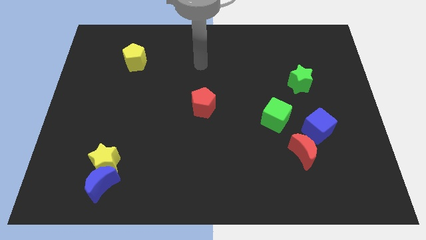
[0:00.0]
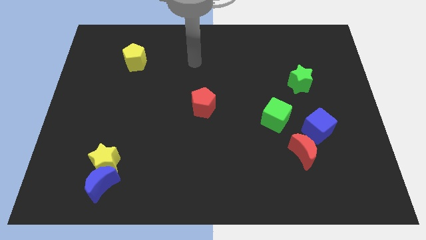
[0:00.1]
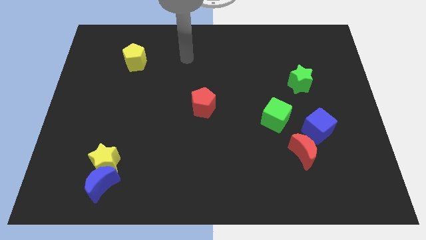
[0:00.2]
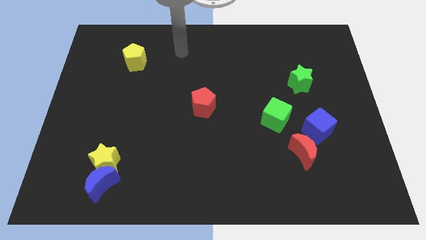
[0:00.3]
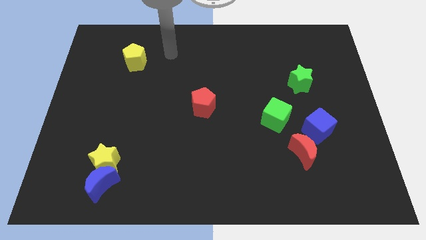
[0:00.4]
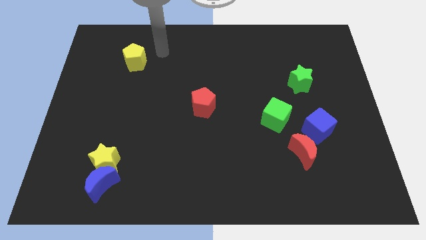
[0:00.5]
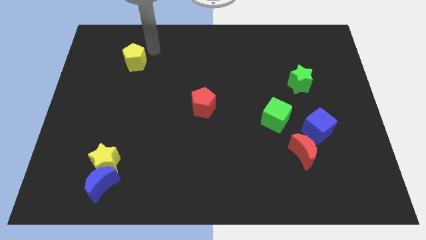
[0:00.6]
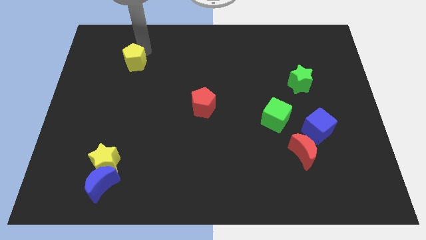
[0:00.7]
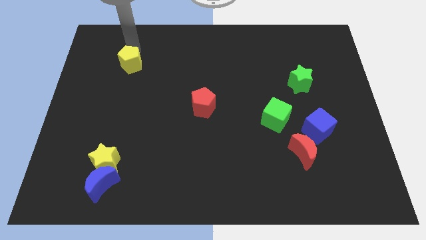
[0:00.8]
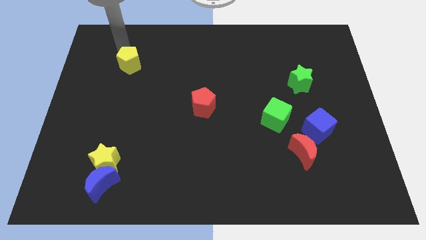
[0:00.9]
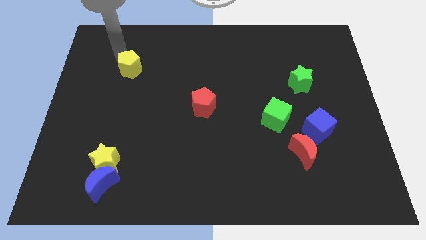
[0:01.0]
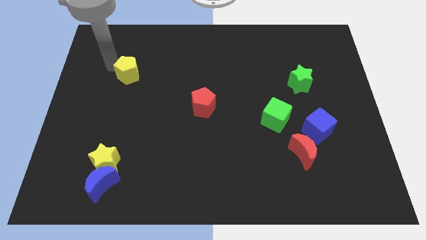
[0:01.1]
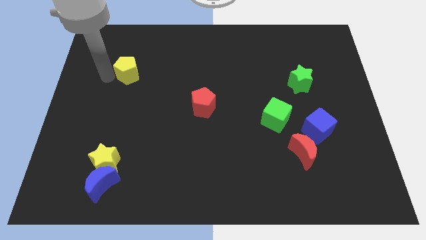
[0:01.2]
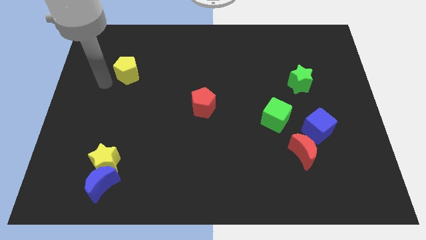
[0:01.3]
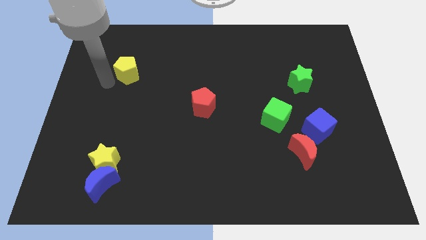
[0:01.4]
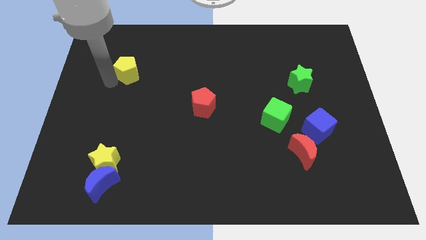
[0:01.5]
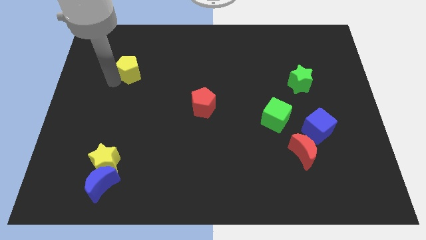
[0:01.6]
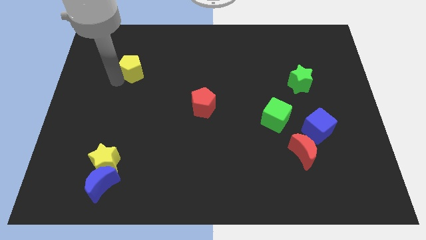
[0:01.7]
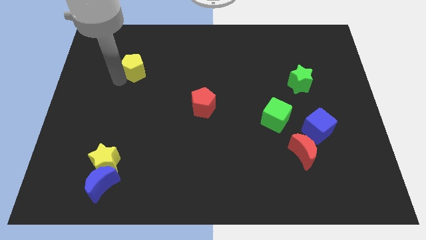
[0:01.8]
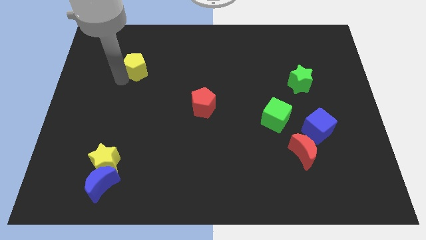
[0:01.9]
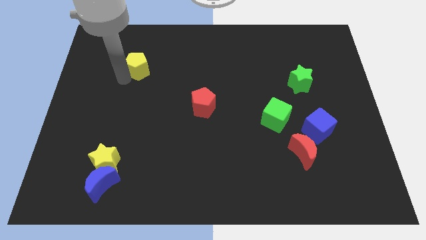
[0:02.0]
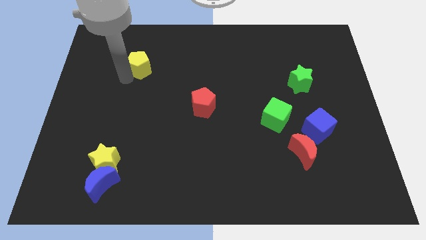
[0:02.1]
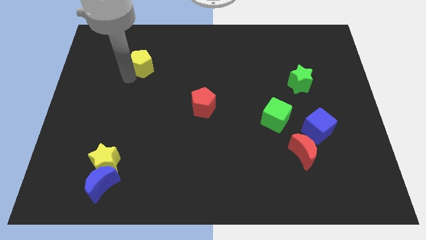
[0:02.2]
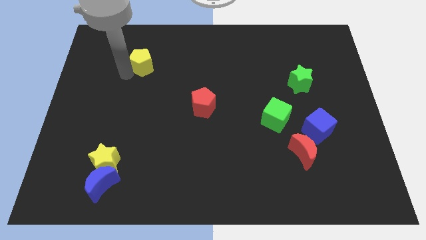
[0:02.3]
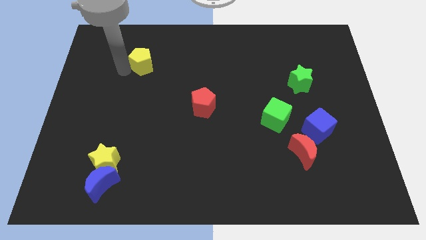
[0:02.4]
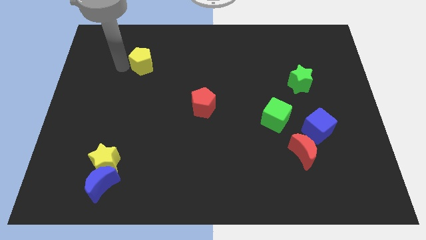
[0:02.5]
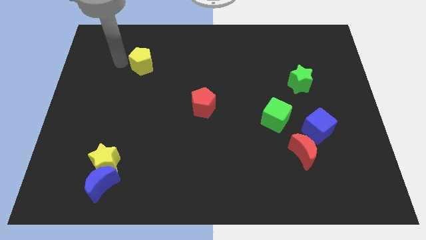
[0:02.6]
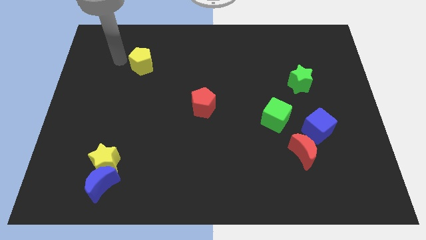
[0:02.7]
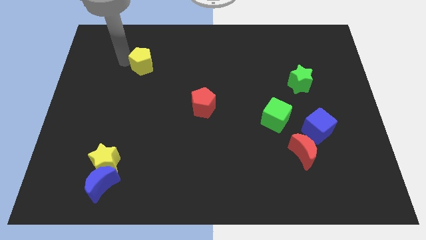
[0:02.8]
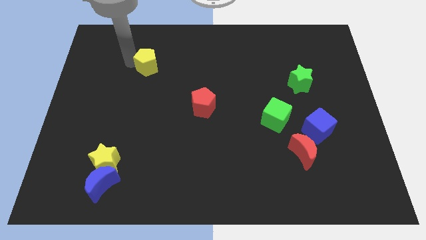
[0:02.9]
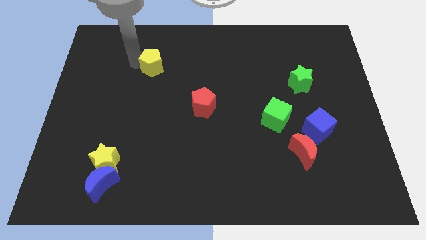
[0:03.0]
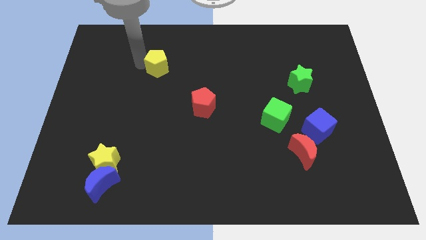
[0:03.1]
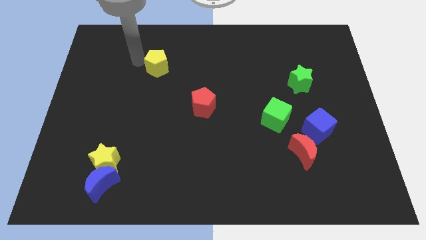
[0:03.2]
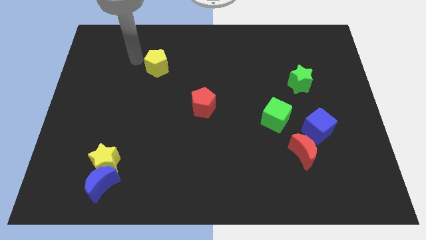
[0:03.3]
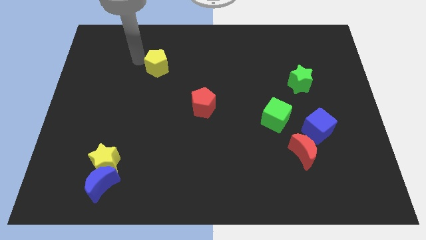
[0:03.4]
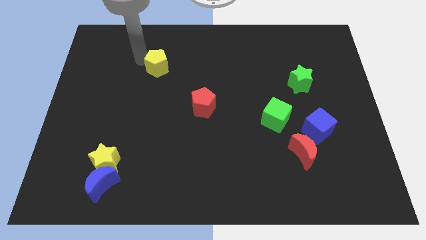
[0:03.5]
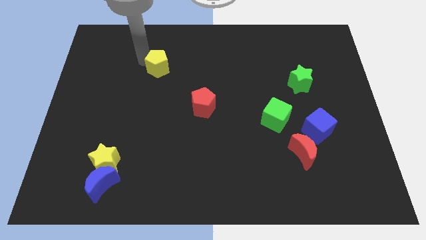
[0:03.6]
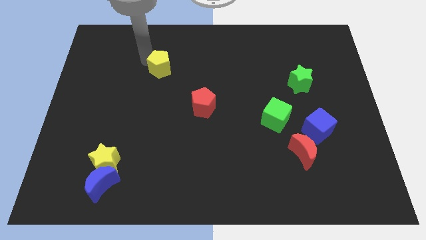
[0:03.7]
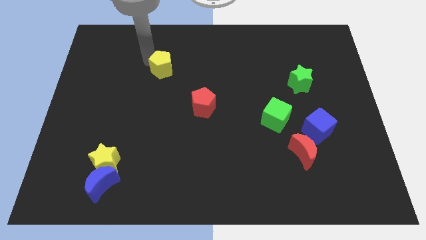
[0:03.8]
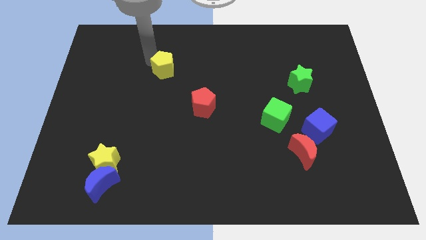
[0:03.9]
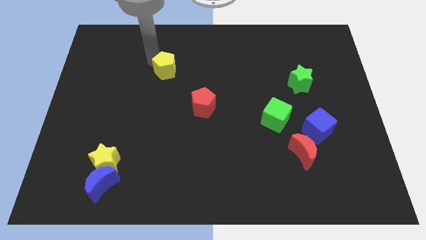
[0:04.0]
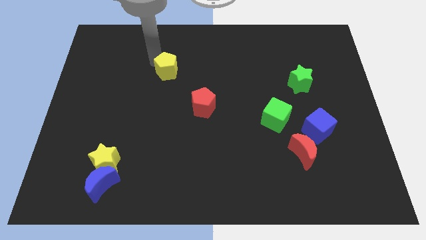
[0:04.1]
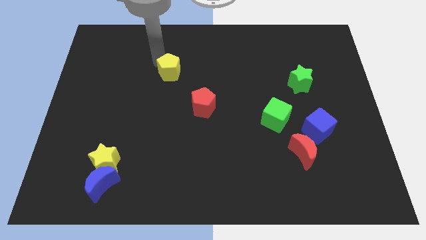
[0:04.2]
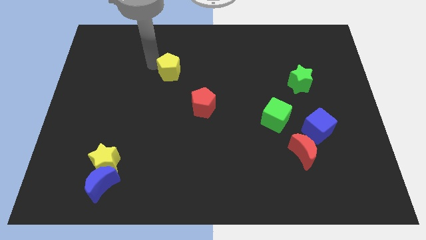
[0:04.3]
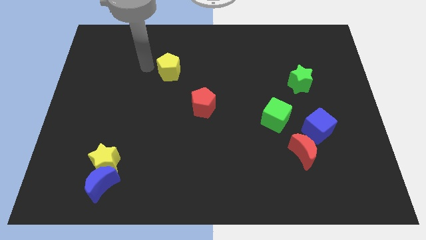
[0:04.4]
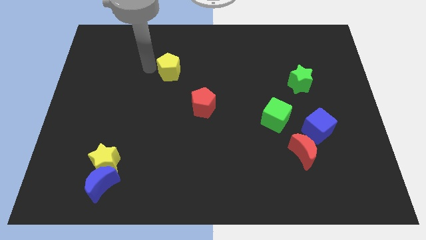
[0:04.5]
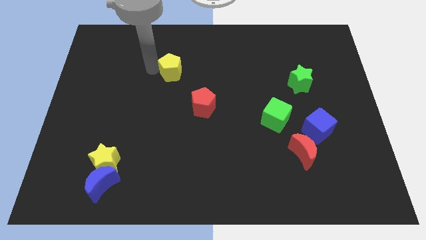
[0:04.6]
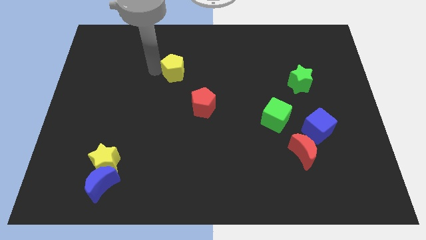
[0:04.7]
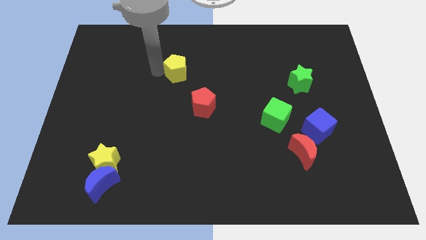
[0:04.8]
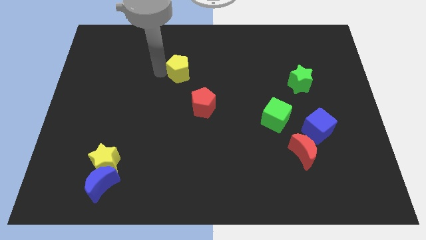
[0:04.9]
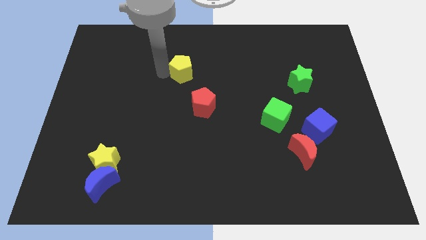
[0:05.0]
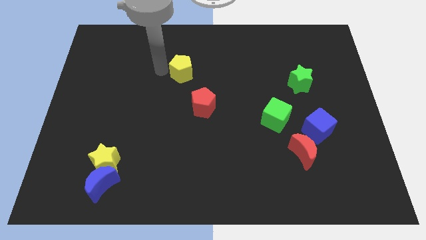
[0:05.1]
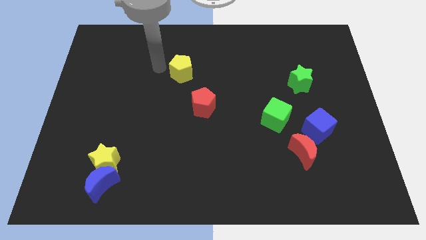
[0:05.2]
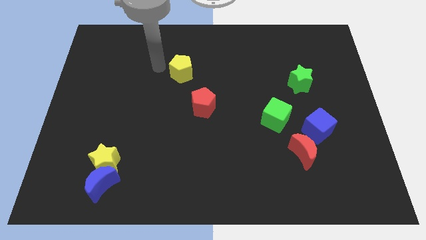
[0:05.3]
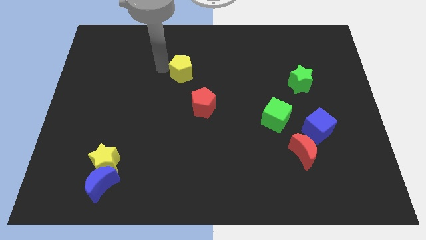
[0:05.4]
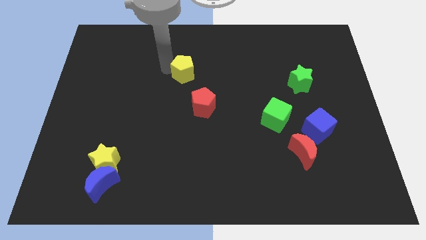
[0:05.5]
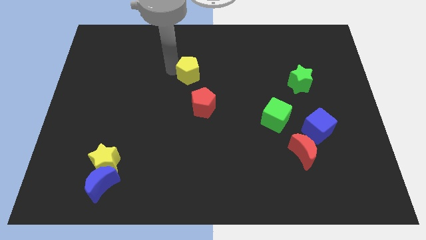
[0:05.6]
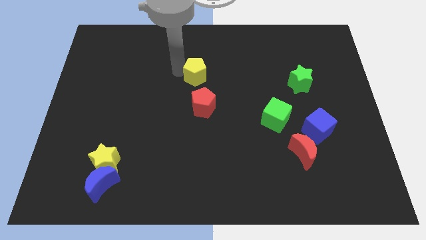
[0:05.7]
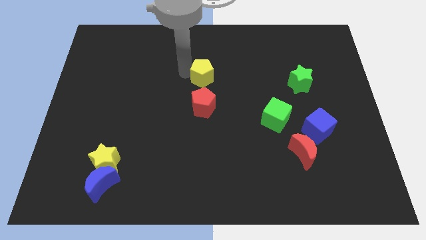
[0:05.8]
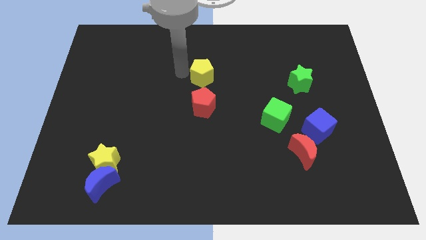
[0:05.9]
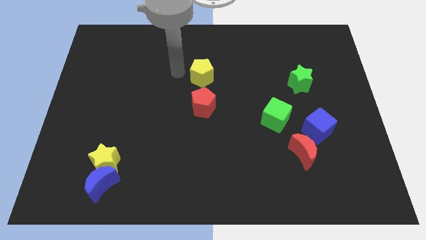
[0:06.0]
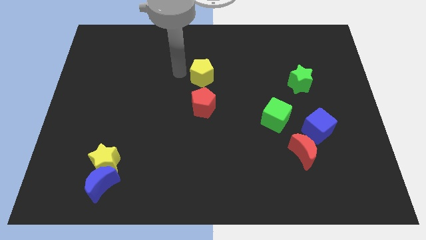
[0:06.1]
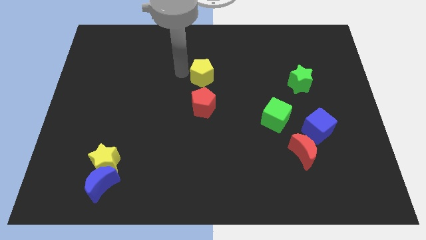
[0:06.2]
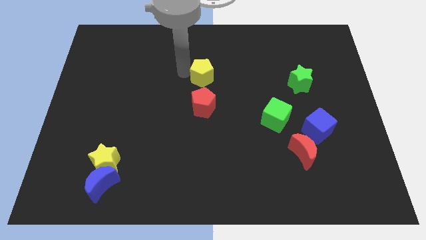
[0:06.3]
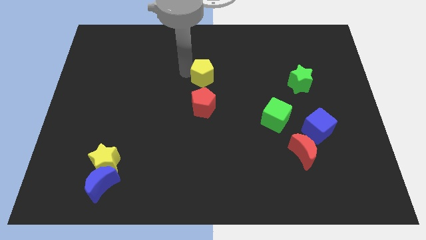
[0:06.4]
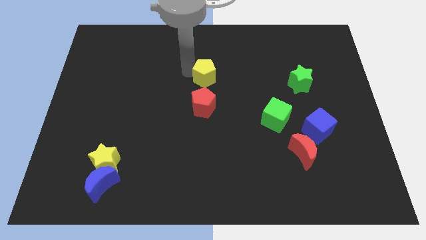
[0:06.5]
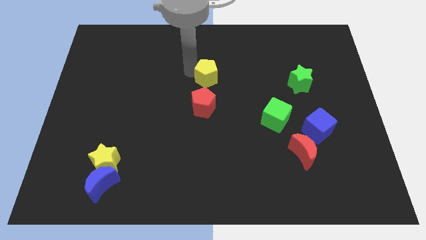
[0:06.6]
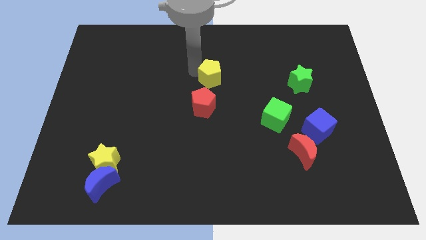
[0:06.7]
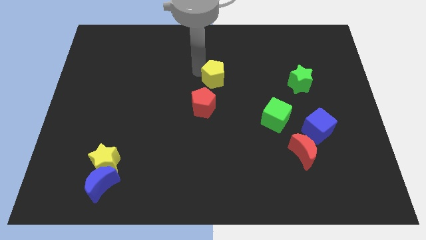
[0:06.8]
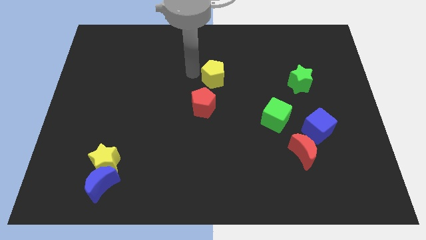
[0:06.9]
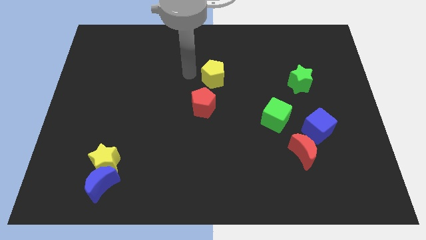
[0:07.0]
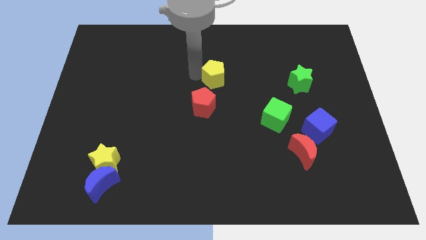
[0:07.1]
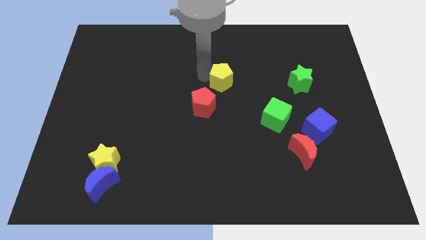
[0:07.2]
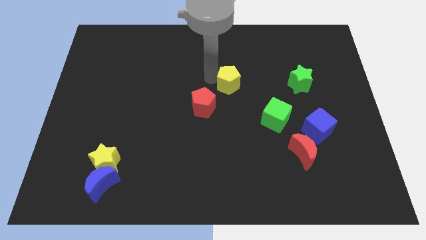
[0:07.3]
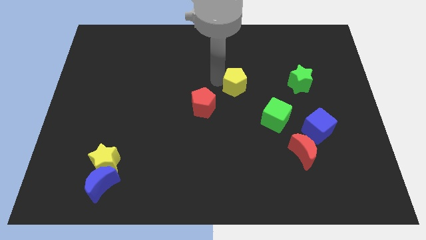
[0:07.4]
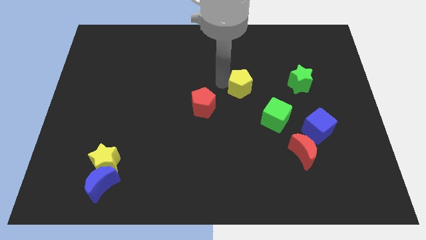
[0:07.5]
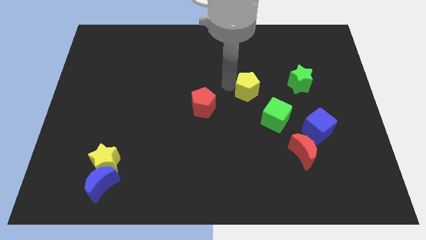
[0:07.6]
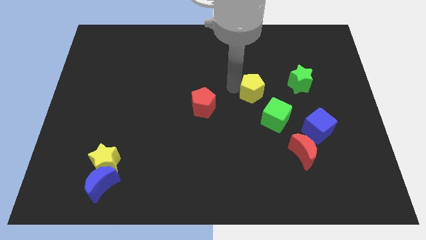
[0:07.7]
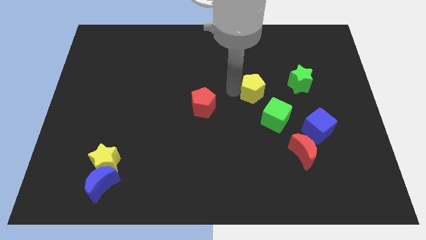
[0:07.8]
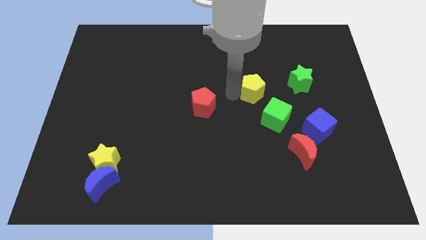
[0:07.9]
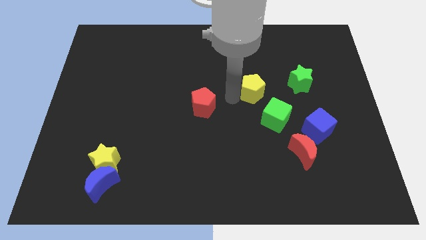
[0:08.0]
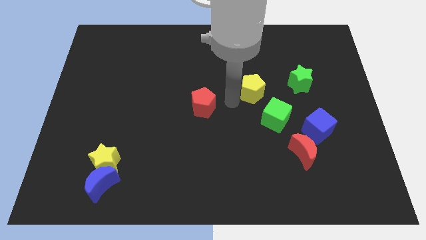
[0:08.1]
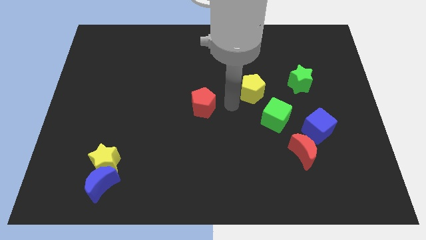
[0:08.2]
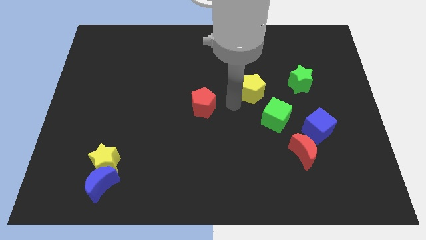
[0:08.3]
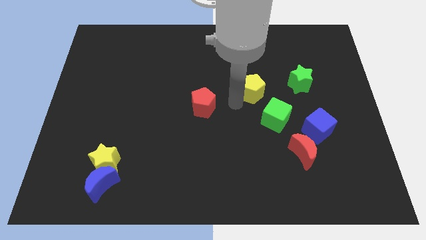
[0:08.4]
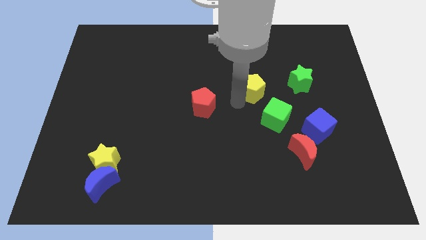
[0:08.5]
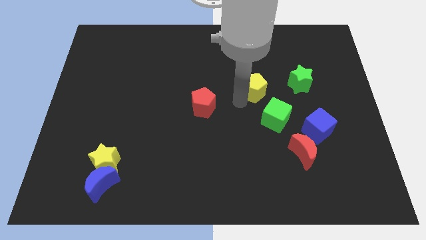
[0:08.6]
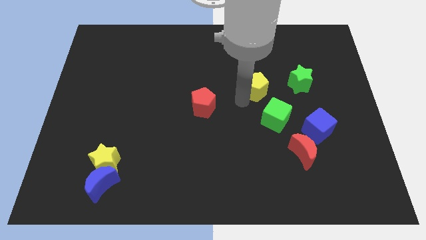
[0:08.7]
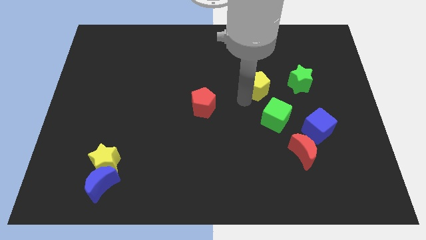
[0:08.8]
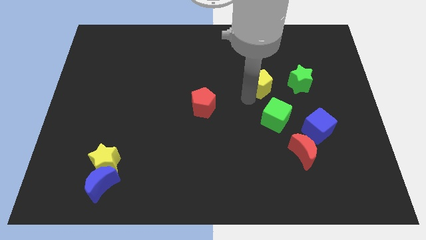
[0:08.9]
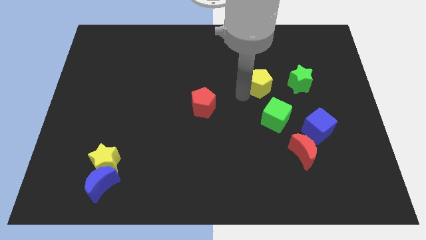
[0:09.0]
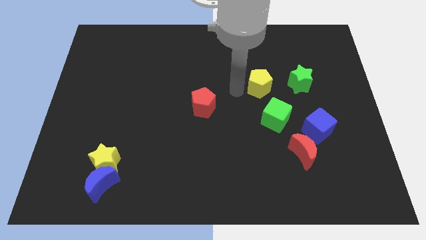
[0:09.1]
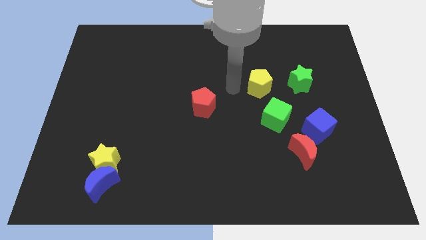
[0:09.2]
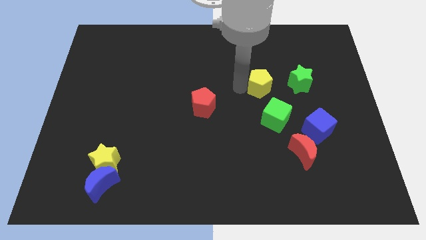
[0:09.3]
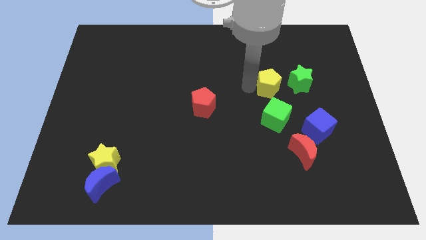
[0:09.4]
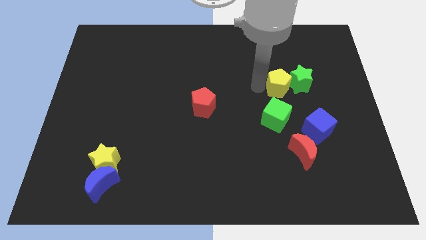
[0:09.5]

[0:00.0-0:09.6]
slide the yellow pentagon next to the green star
